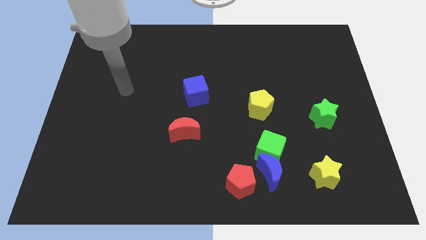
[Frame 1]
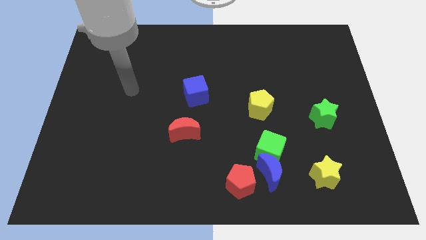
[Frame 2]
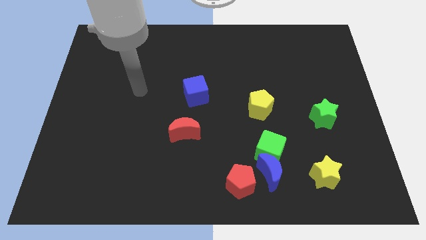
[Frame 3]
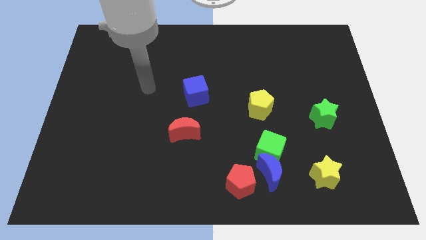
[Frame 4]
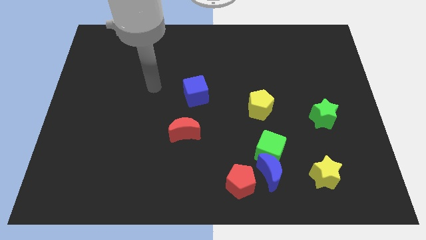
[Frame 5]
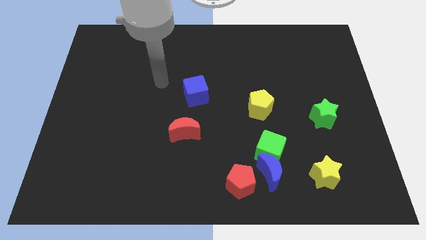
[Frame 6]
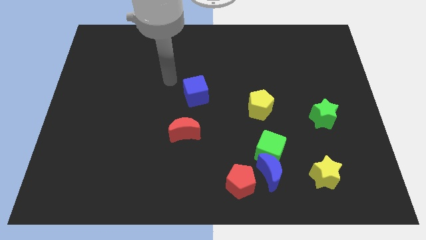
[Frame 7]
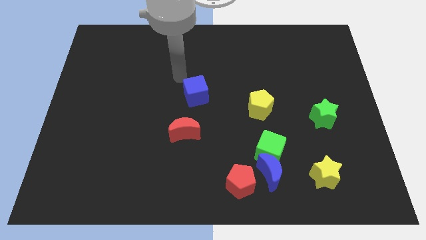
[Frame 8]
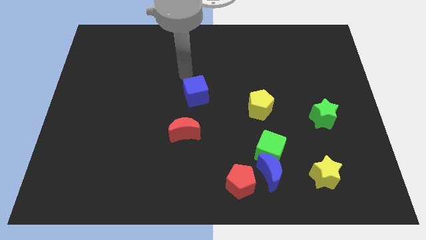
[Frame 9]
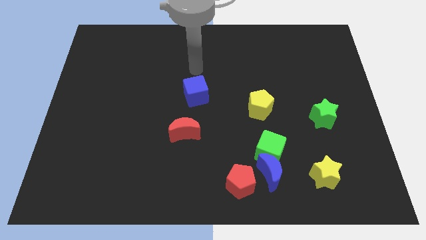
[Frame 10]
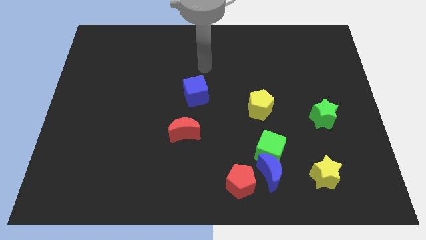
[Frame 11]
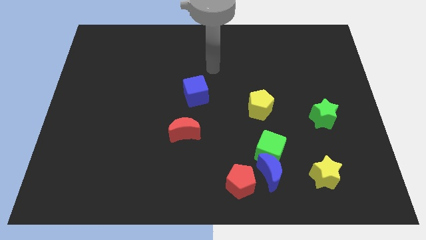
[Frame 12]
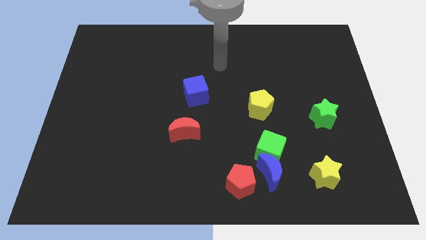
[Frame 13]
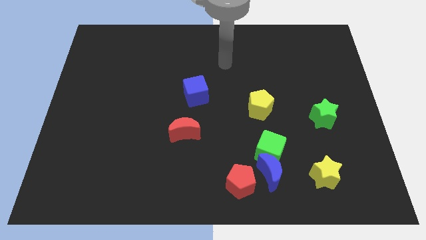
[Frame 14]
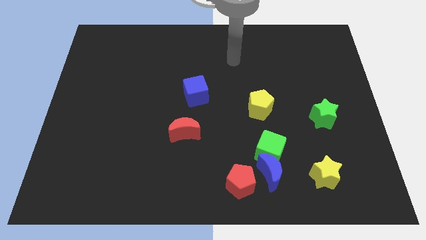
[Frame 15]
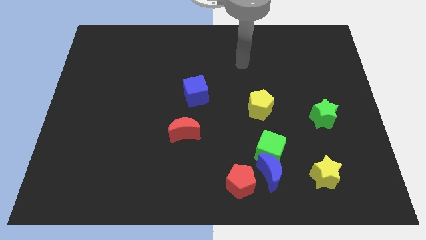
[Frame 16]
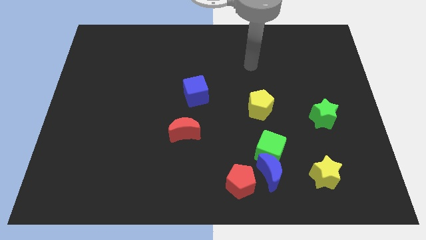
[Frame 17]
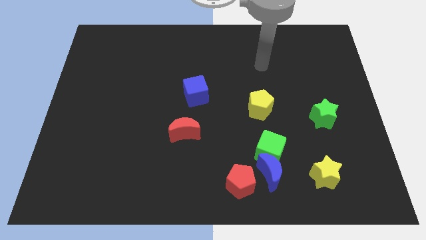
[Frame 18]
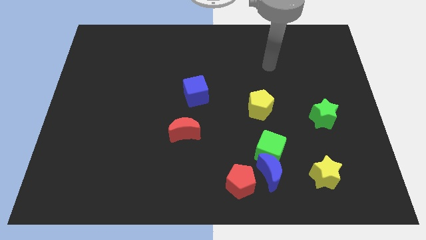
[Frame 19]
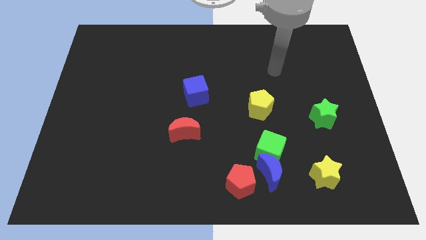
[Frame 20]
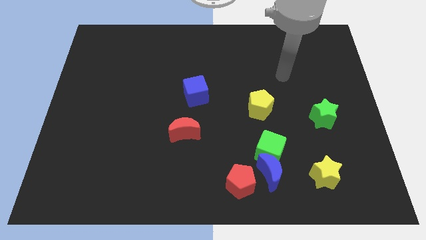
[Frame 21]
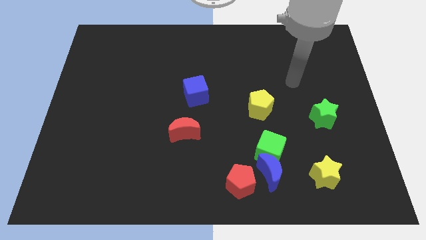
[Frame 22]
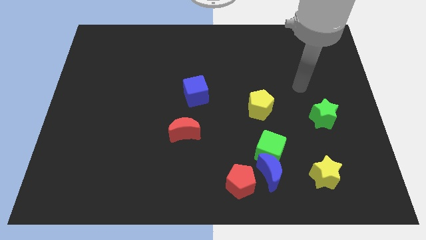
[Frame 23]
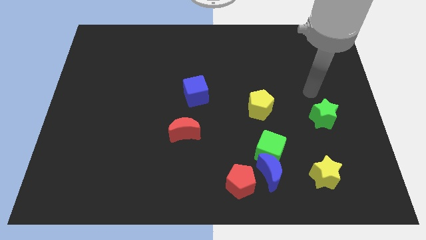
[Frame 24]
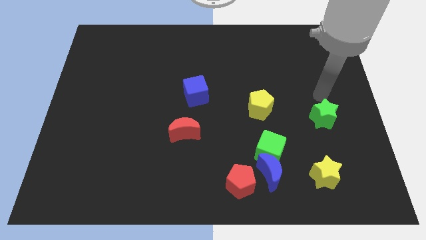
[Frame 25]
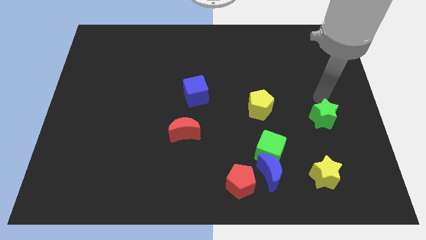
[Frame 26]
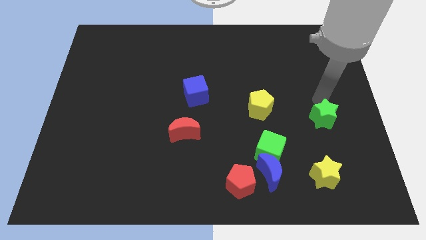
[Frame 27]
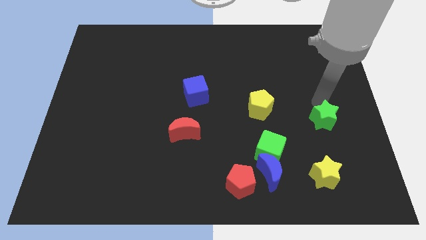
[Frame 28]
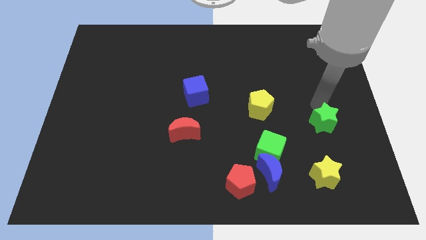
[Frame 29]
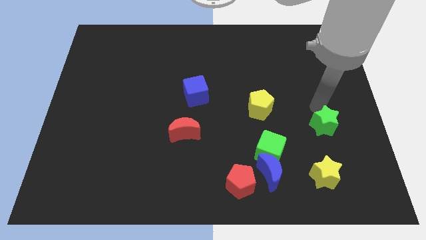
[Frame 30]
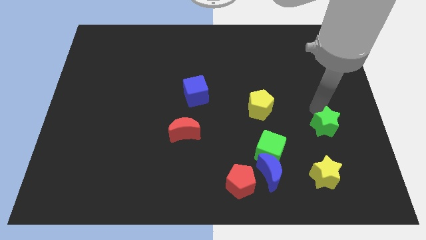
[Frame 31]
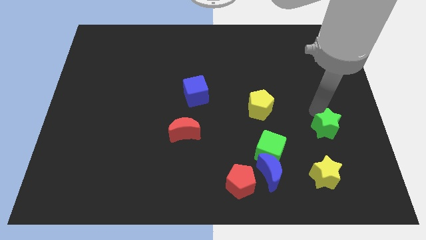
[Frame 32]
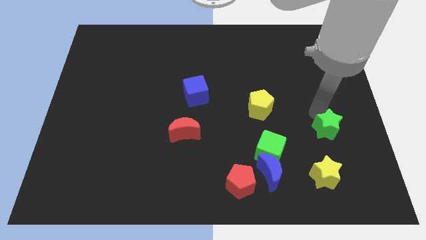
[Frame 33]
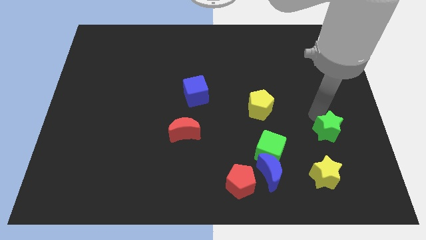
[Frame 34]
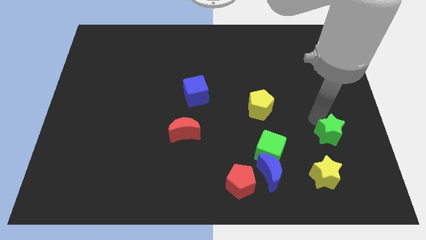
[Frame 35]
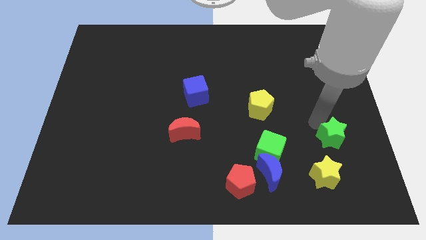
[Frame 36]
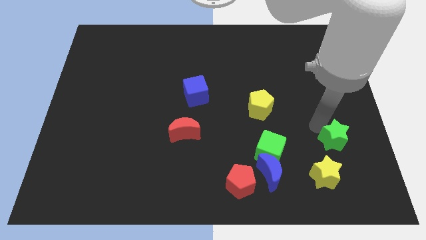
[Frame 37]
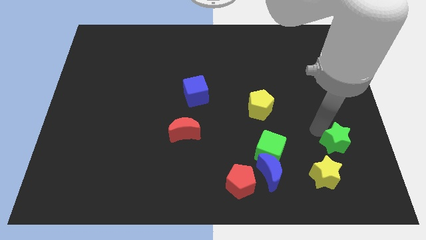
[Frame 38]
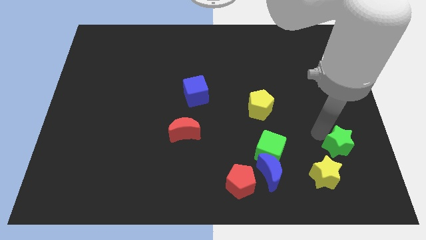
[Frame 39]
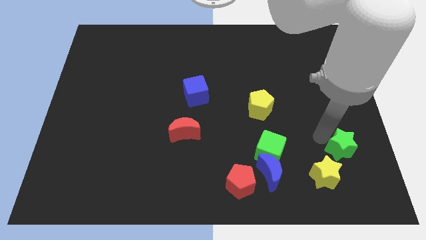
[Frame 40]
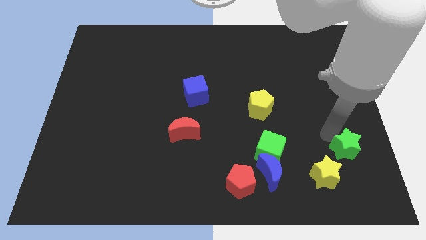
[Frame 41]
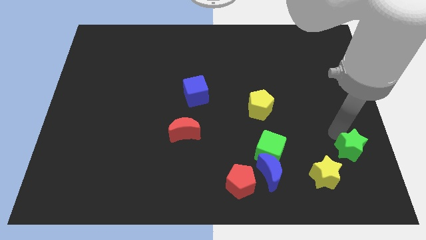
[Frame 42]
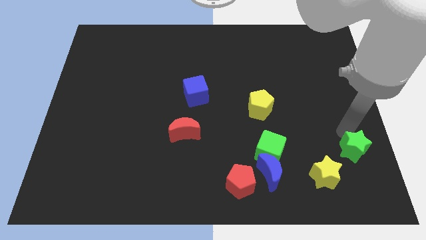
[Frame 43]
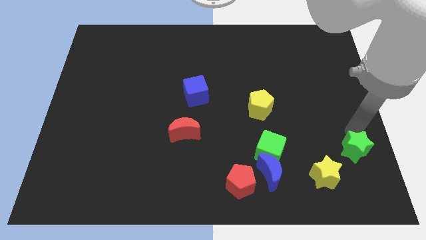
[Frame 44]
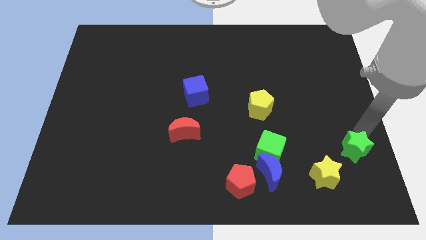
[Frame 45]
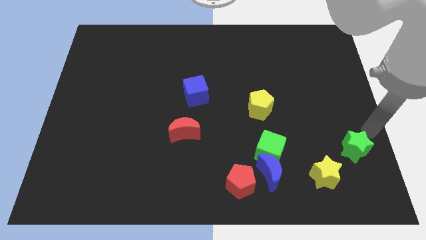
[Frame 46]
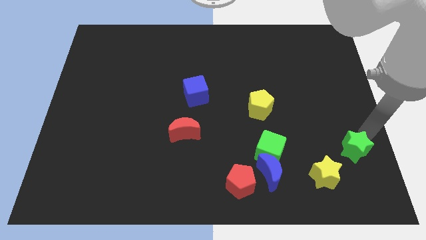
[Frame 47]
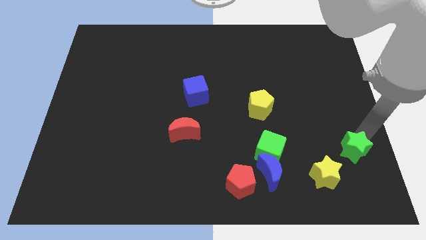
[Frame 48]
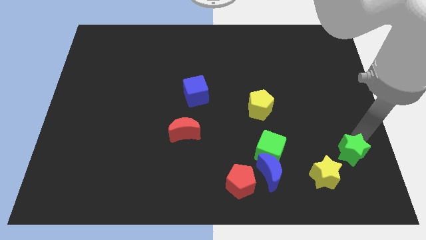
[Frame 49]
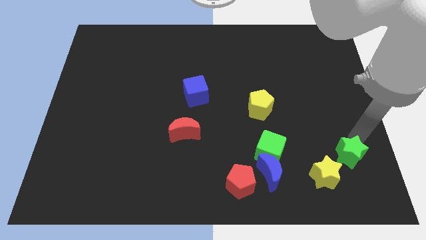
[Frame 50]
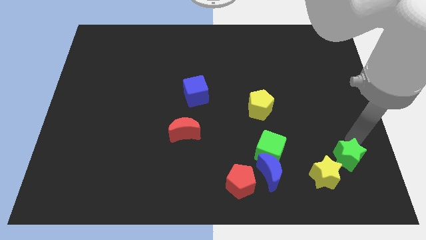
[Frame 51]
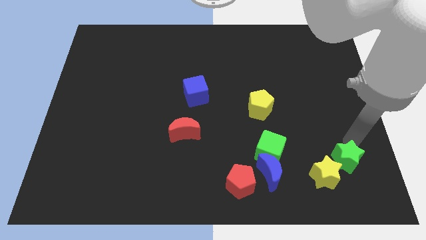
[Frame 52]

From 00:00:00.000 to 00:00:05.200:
put the green star to the yellow star

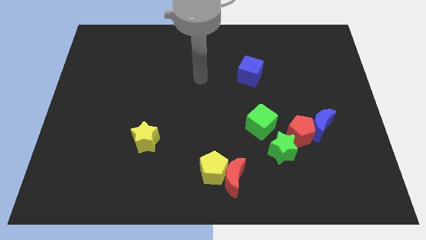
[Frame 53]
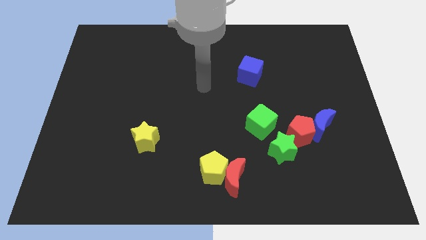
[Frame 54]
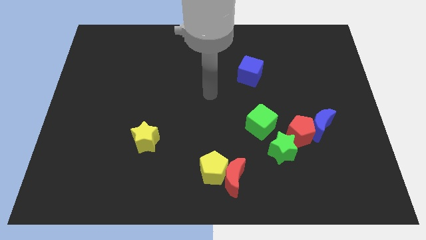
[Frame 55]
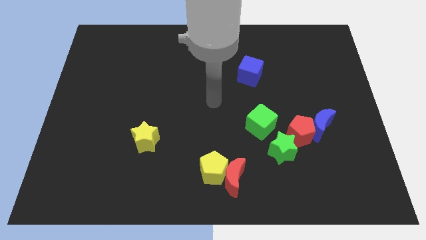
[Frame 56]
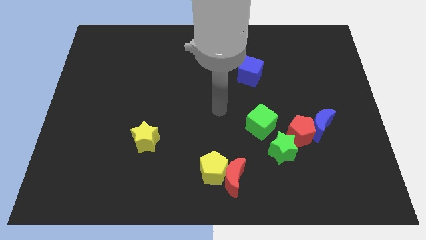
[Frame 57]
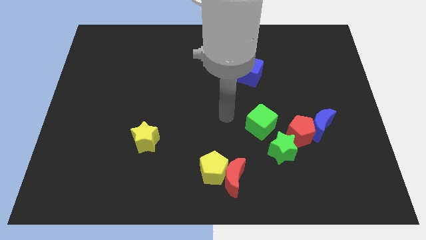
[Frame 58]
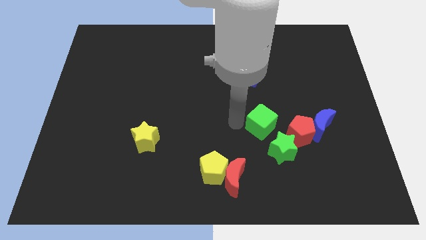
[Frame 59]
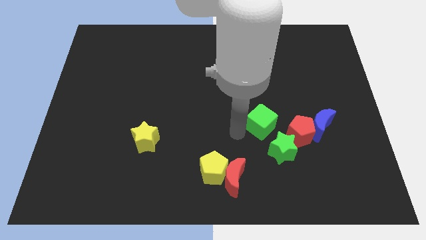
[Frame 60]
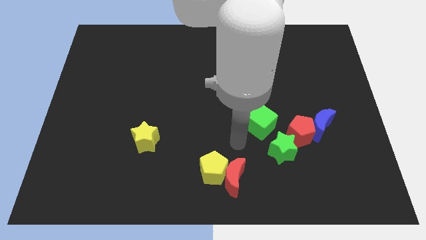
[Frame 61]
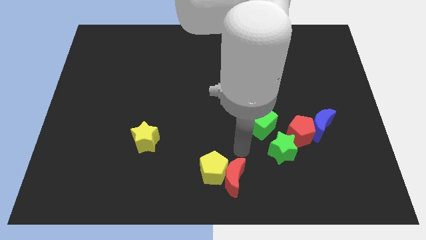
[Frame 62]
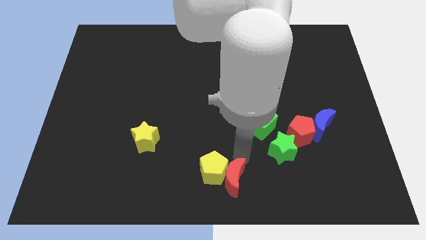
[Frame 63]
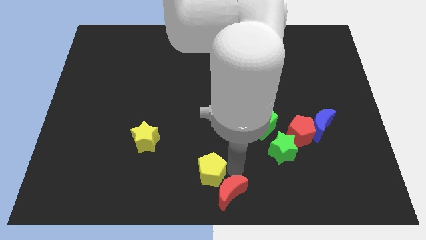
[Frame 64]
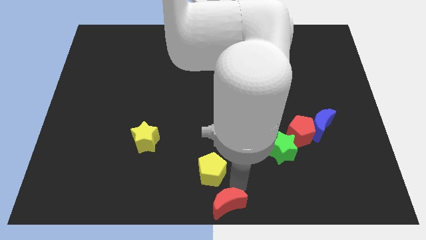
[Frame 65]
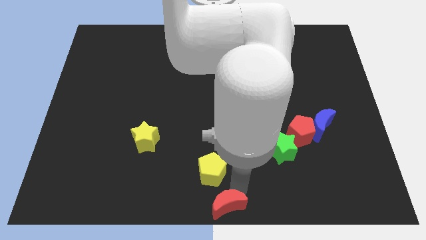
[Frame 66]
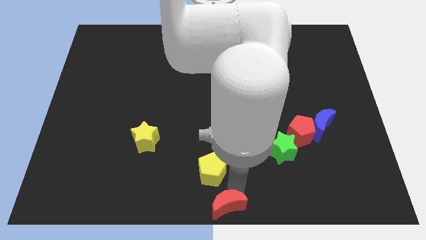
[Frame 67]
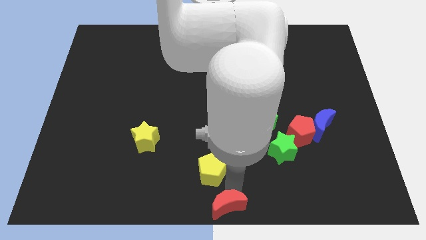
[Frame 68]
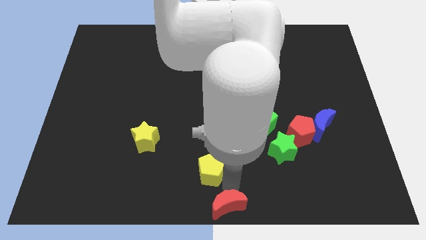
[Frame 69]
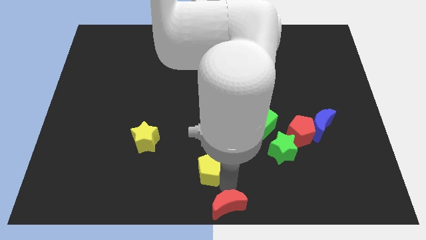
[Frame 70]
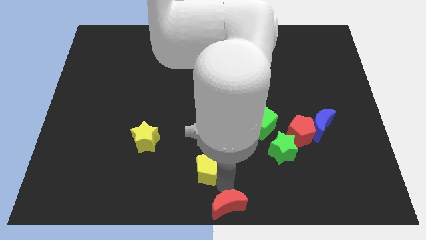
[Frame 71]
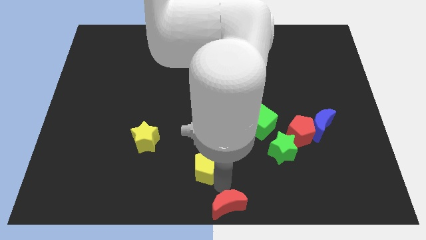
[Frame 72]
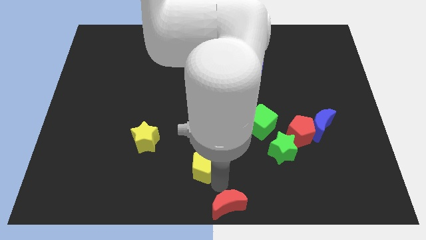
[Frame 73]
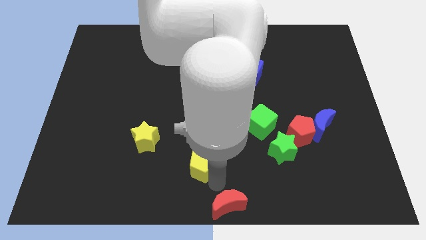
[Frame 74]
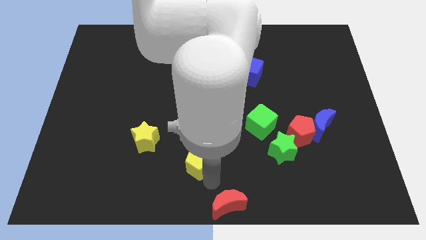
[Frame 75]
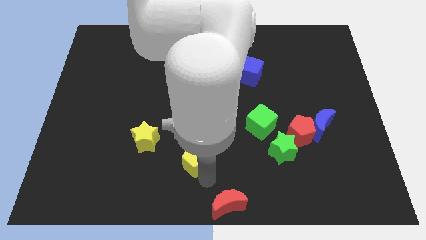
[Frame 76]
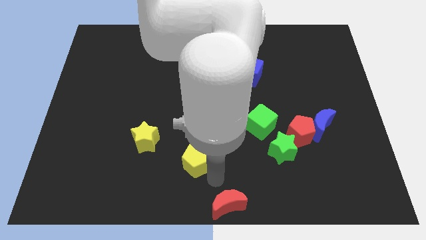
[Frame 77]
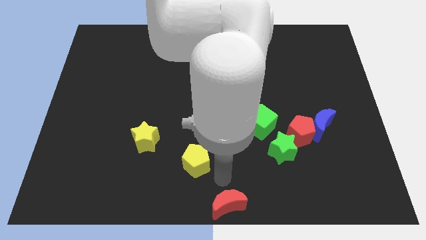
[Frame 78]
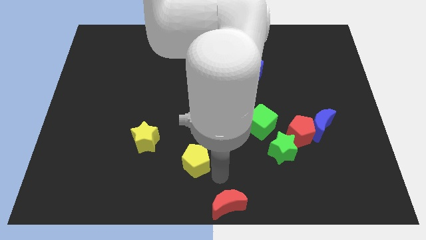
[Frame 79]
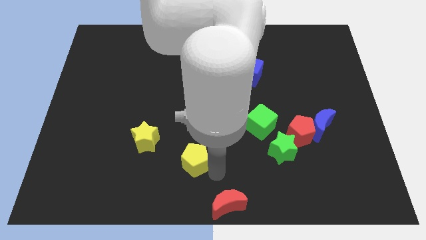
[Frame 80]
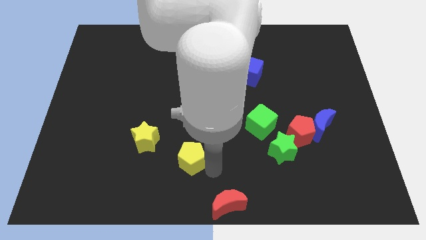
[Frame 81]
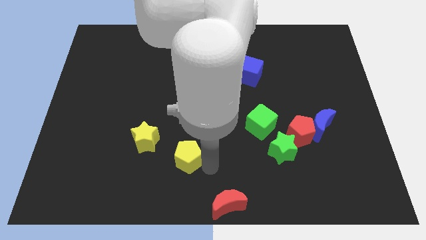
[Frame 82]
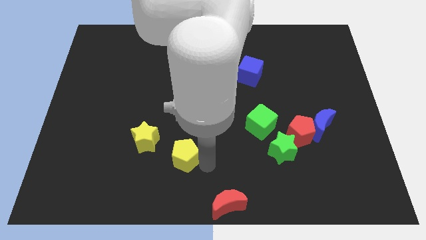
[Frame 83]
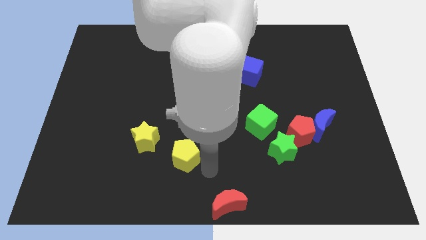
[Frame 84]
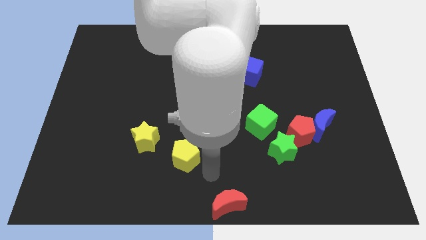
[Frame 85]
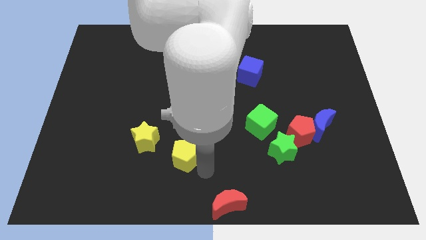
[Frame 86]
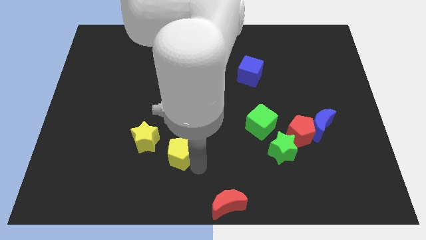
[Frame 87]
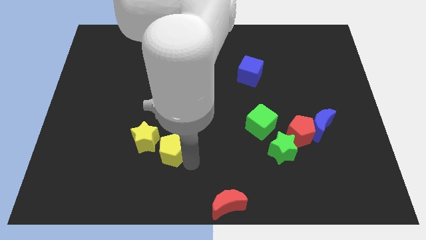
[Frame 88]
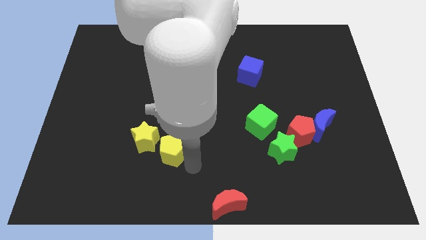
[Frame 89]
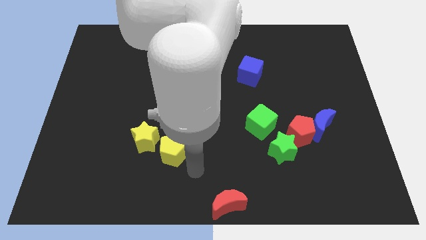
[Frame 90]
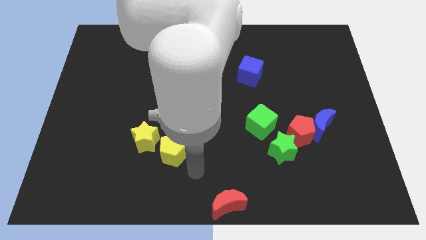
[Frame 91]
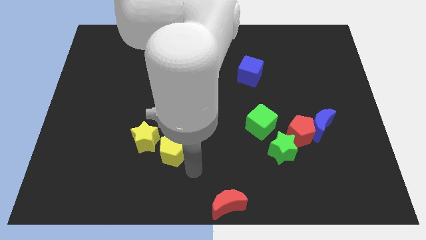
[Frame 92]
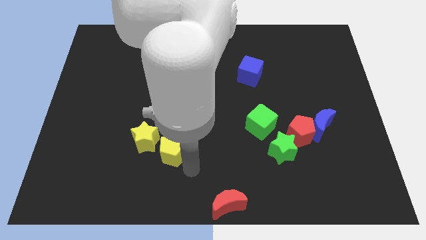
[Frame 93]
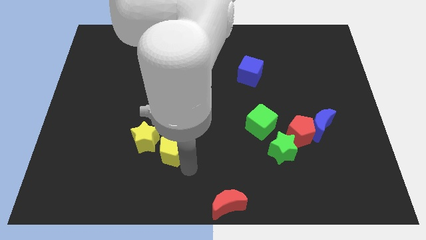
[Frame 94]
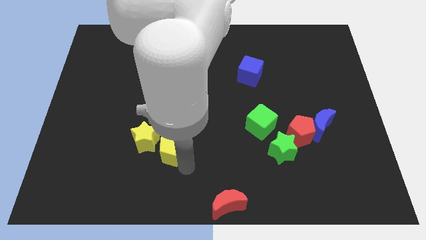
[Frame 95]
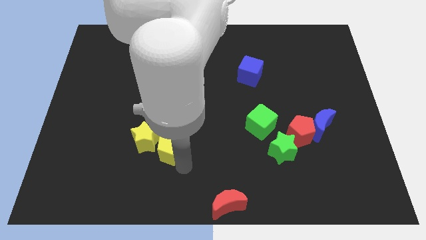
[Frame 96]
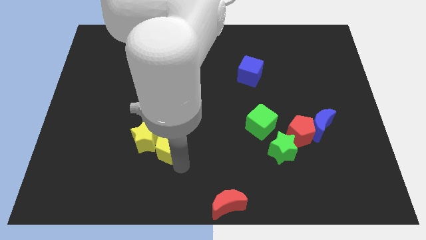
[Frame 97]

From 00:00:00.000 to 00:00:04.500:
push the yellow pentagon towards the yellow star
